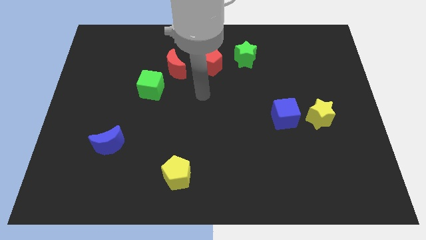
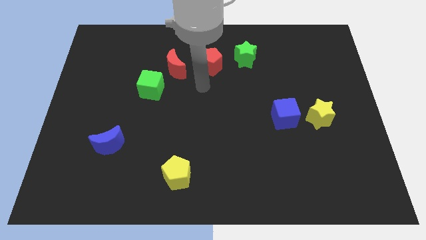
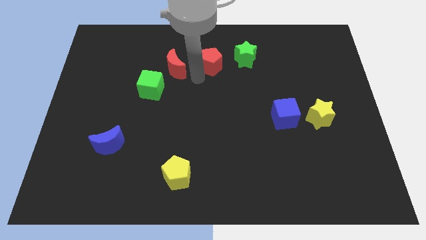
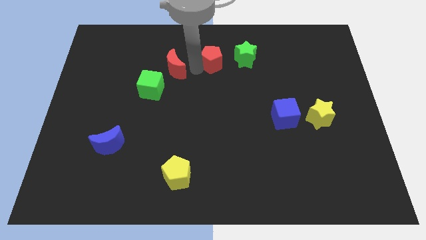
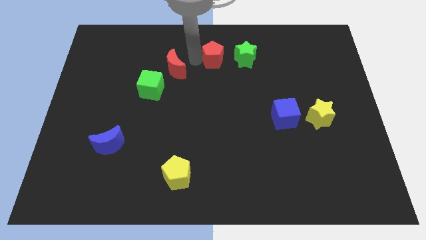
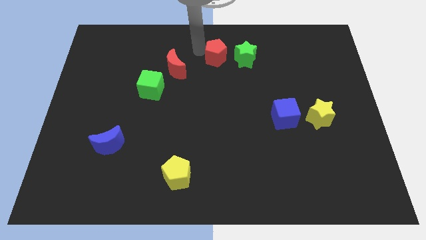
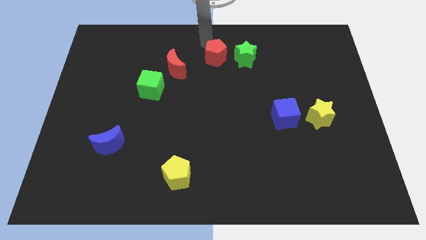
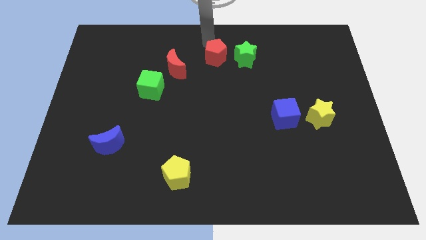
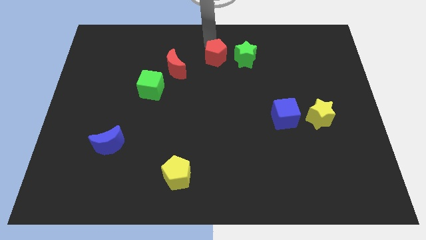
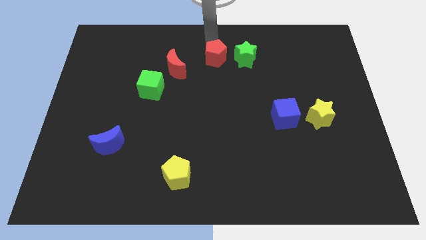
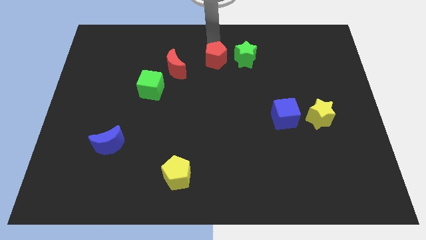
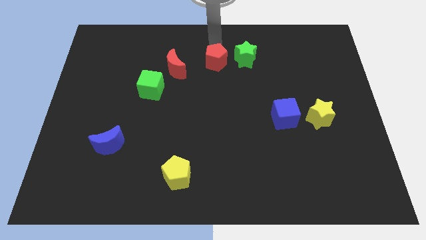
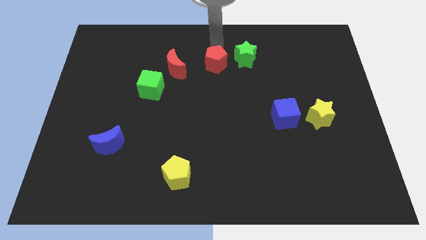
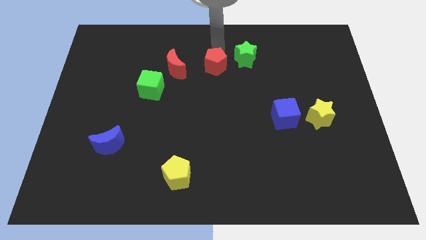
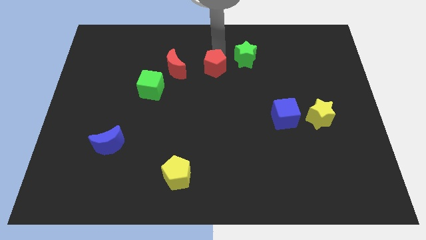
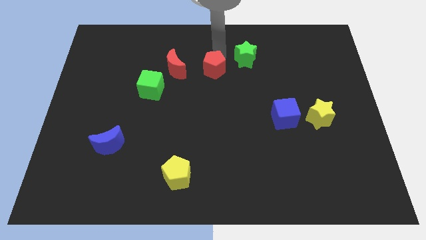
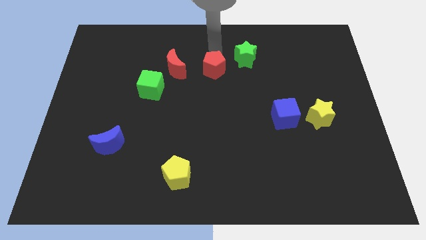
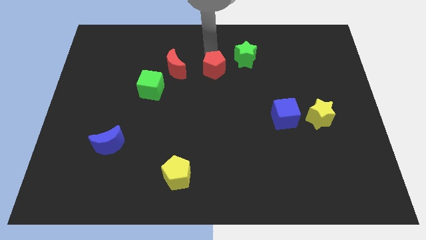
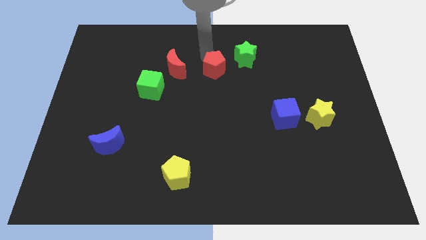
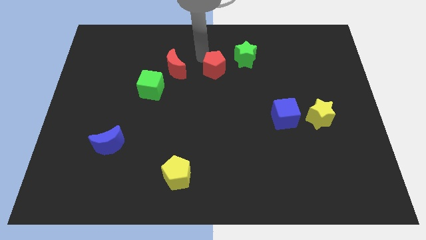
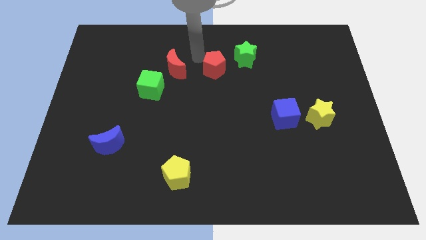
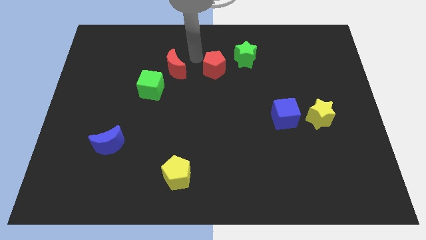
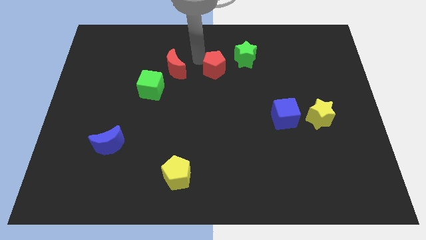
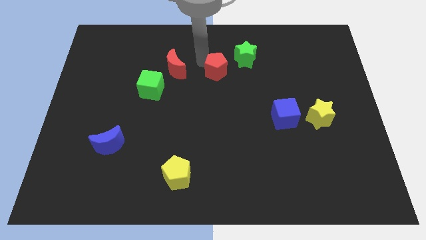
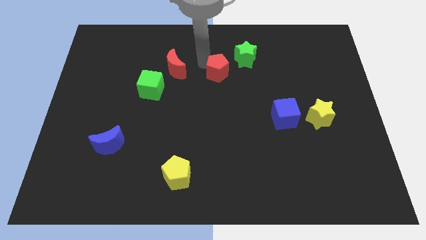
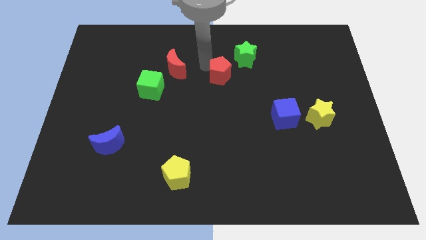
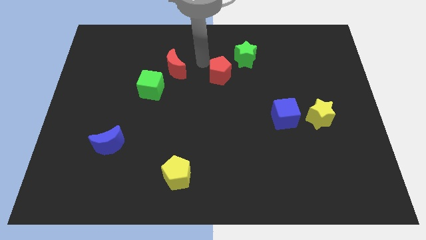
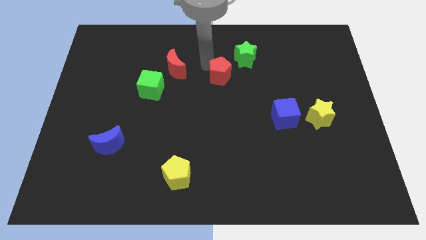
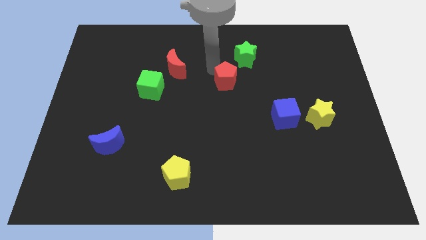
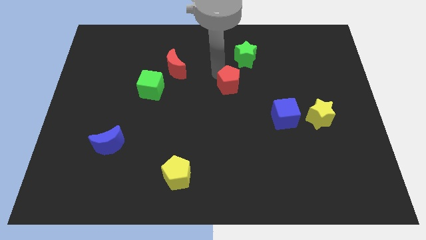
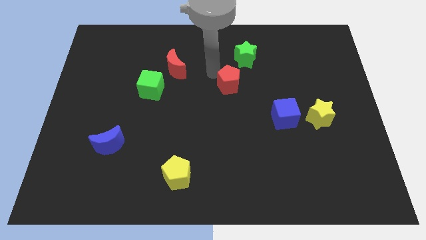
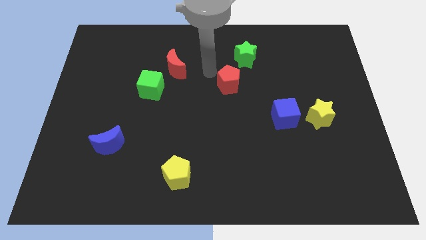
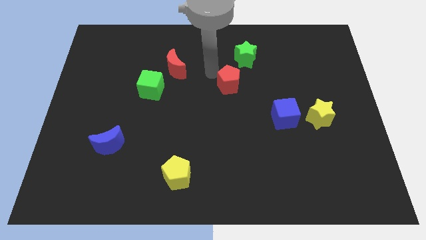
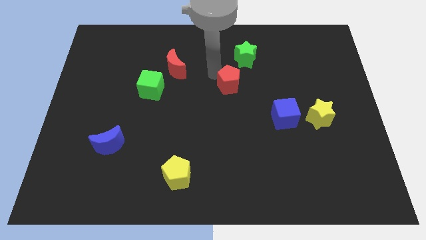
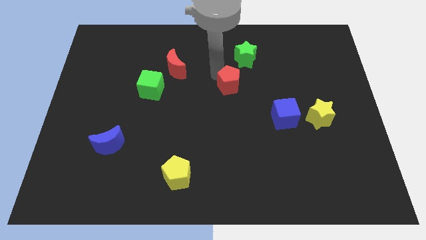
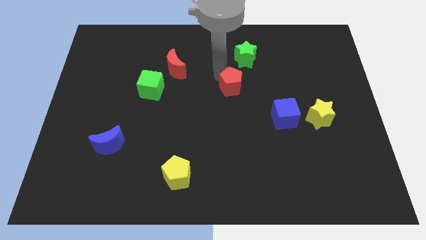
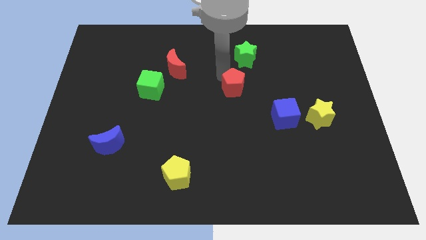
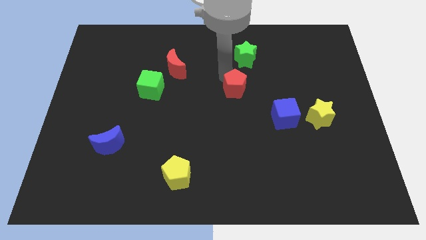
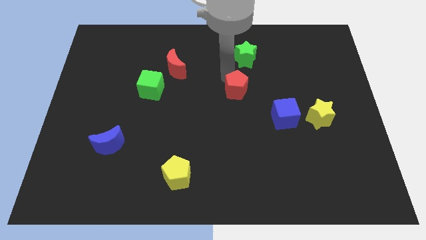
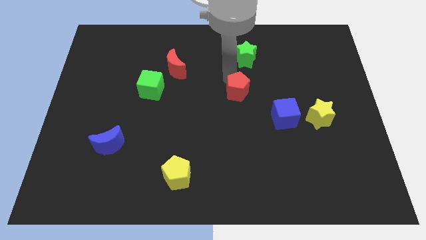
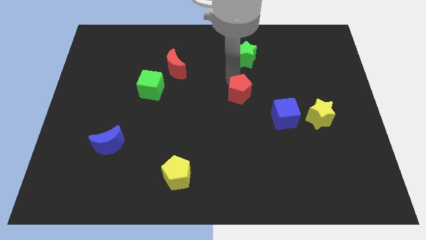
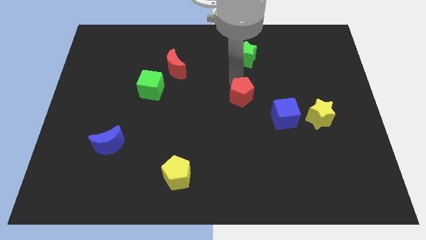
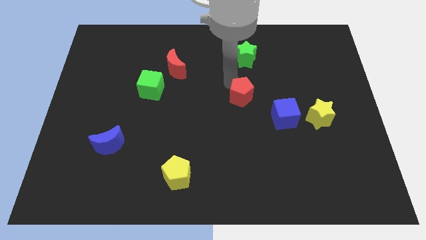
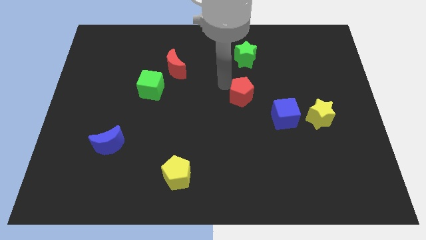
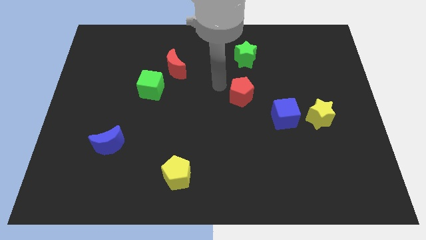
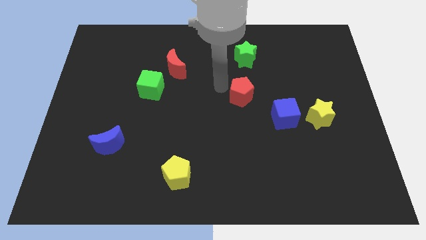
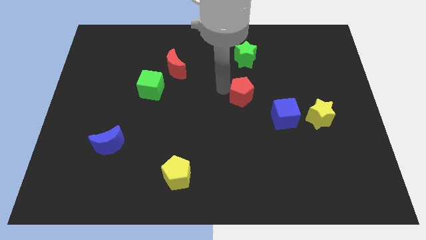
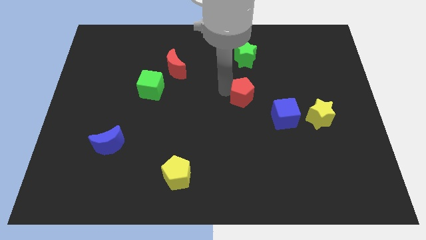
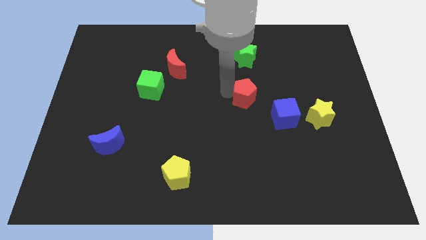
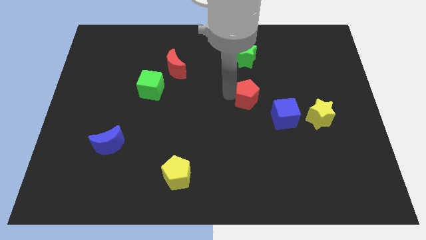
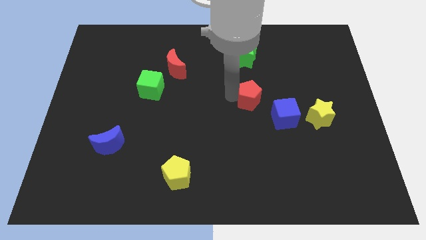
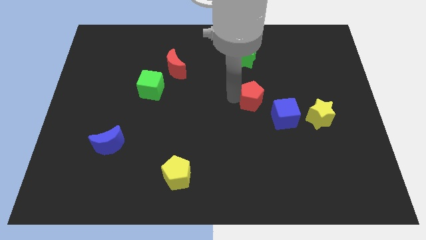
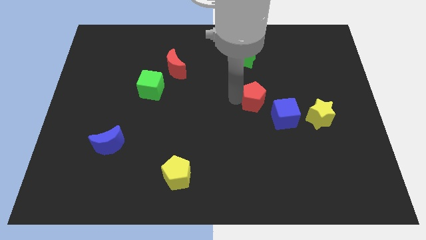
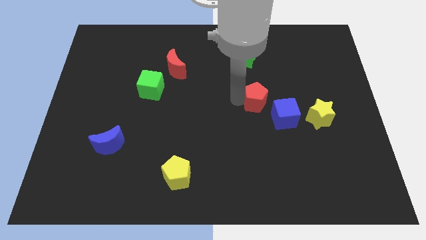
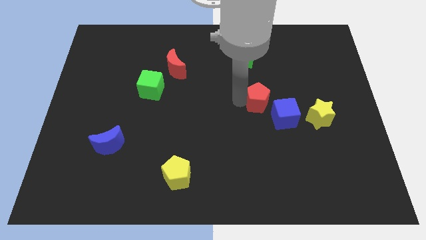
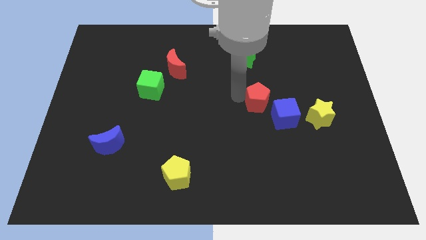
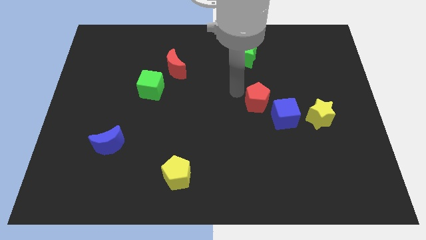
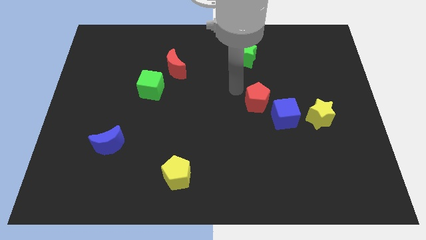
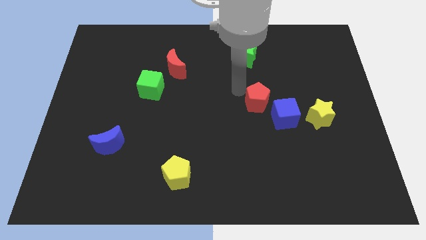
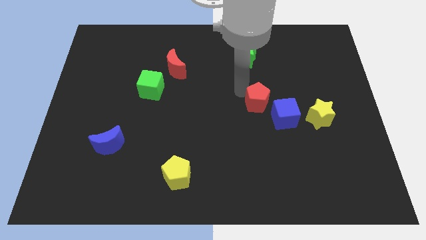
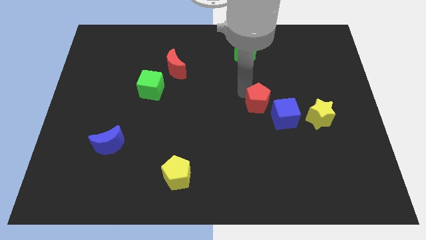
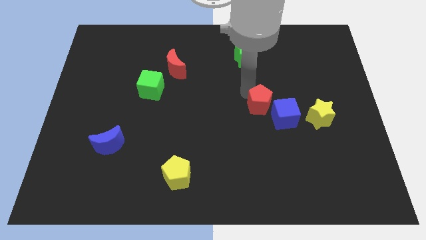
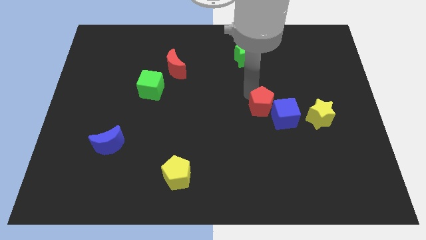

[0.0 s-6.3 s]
slide the red pentagon towards the blue cube

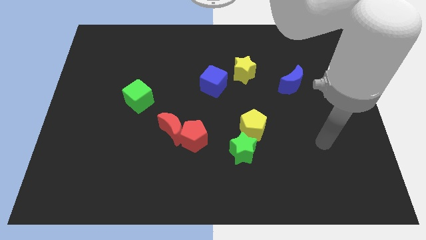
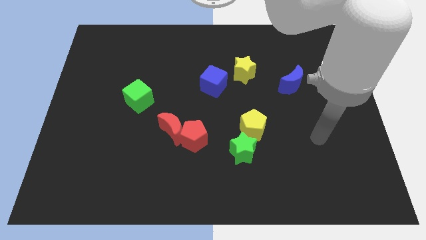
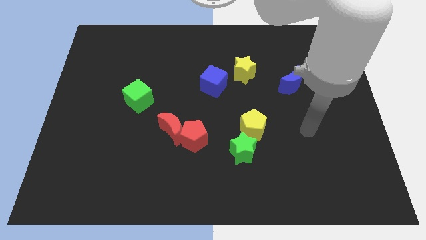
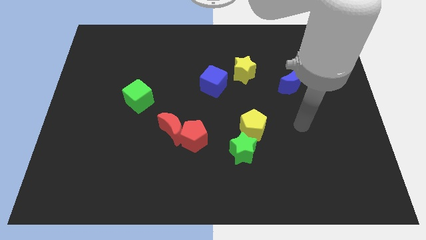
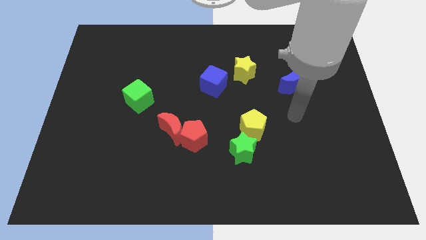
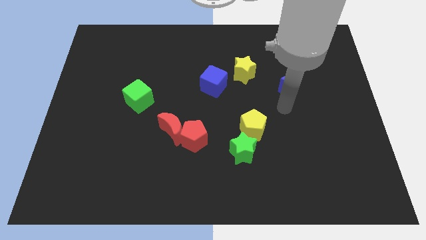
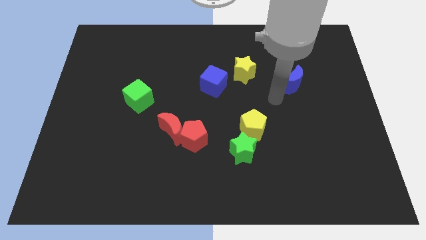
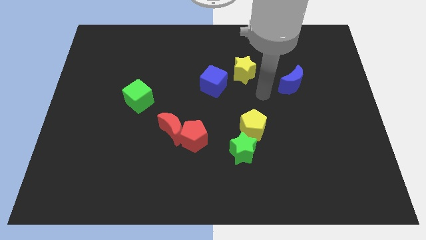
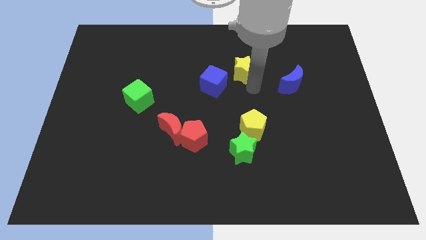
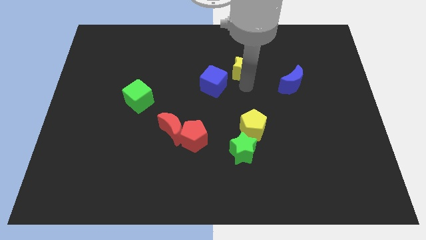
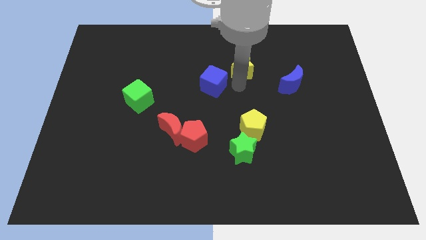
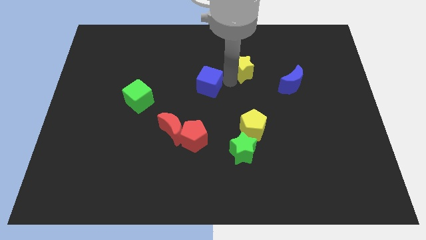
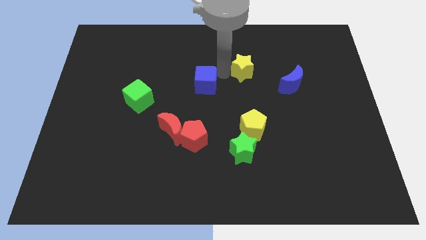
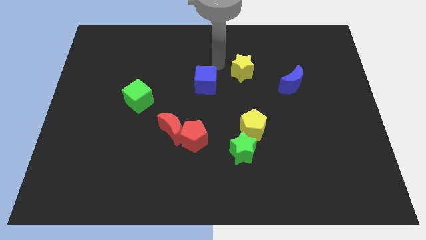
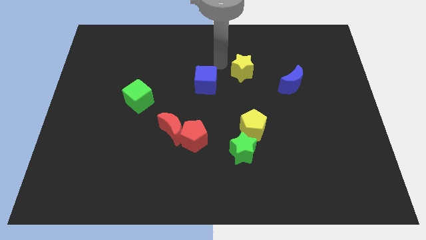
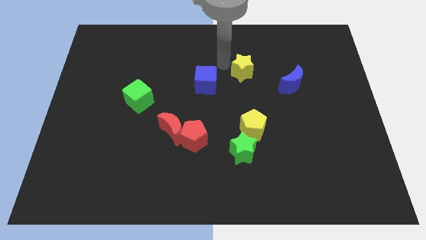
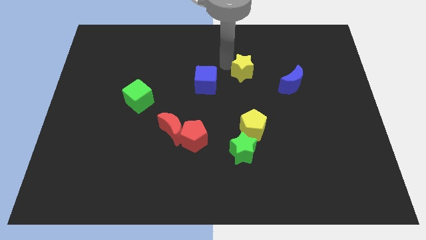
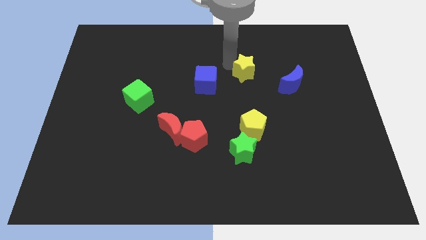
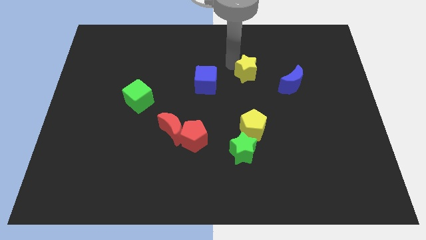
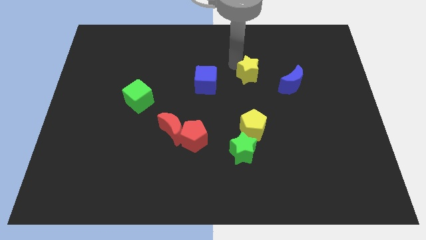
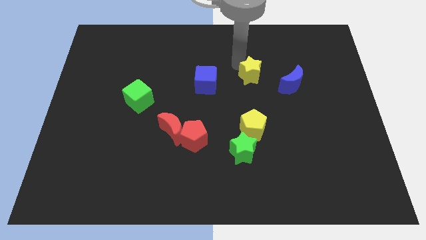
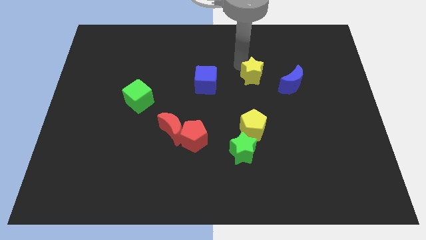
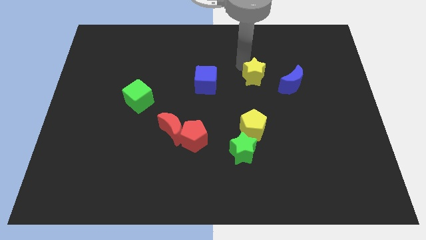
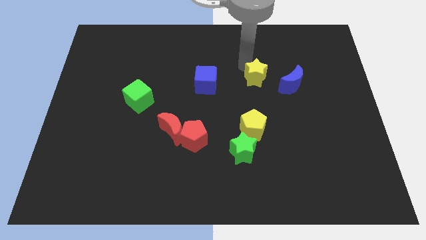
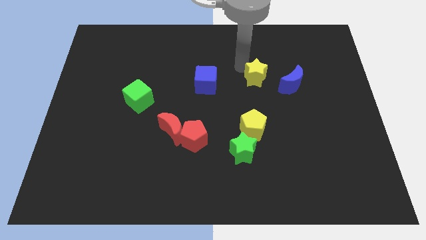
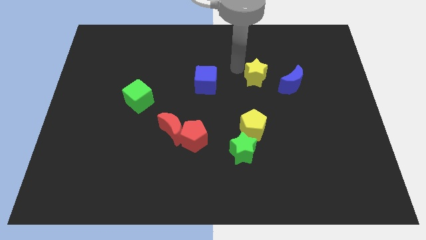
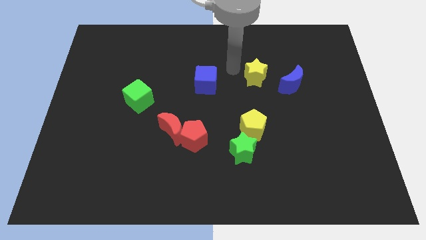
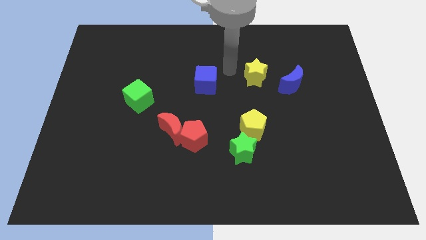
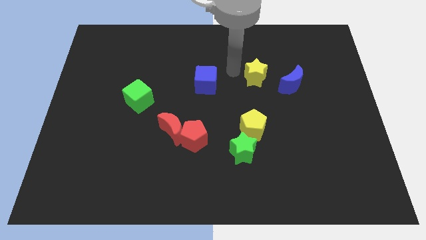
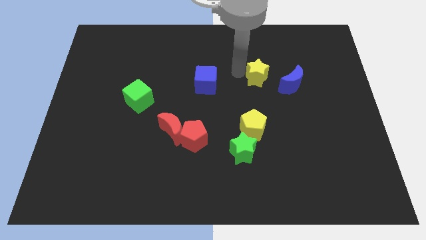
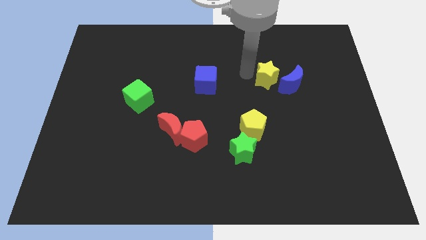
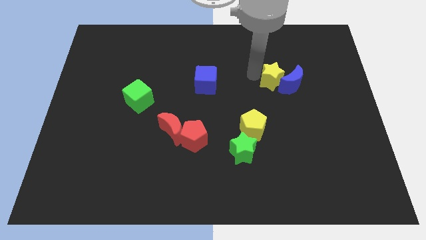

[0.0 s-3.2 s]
push the yellow star towards the blue moon
